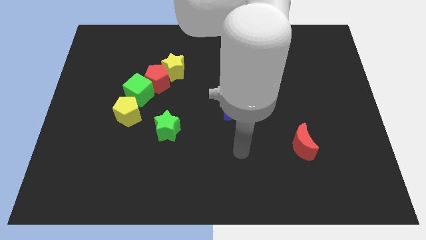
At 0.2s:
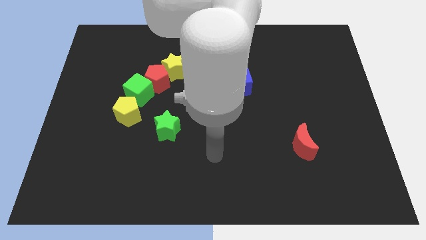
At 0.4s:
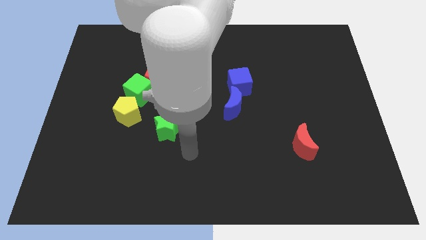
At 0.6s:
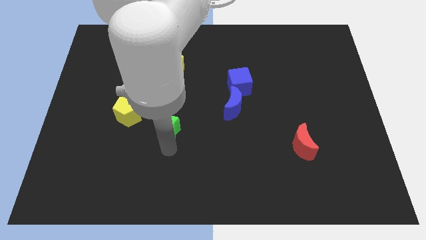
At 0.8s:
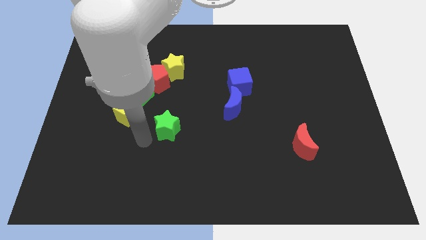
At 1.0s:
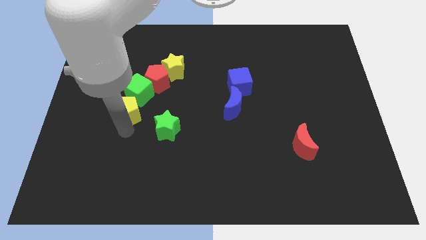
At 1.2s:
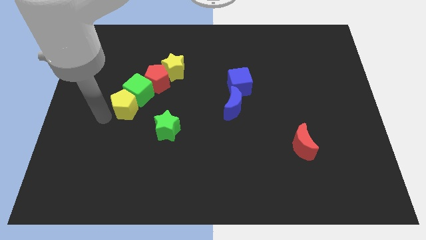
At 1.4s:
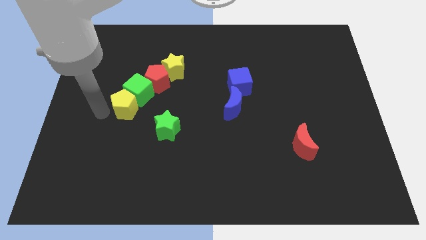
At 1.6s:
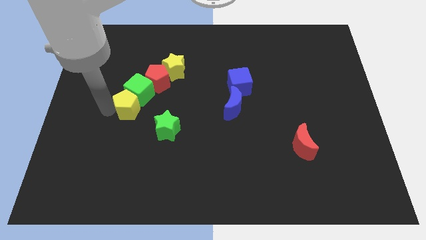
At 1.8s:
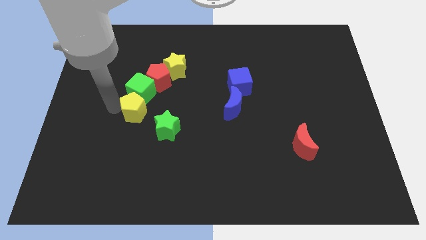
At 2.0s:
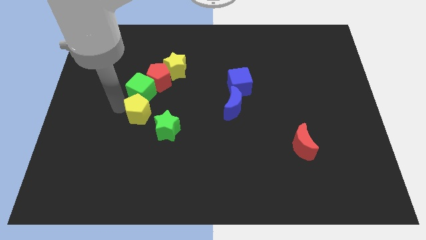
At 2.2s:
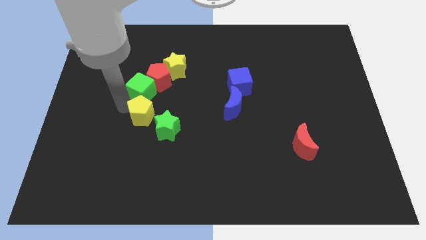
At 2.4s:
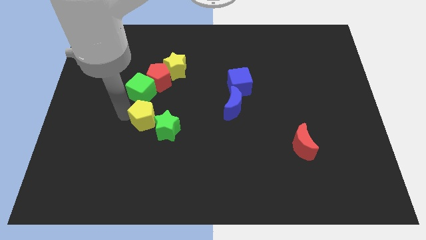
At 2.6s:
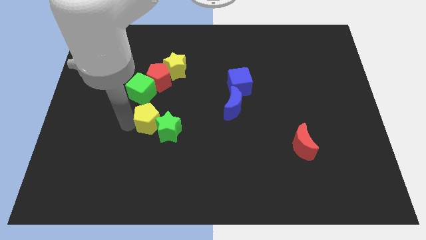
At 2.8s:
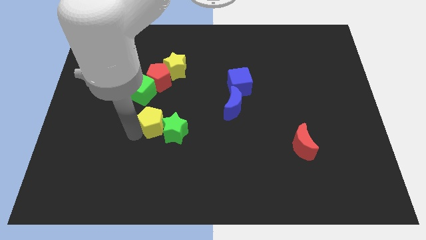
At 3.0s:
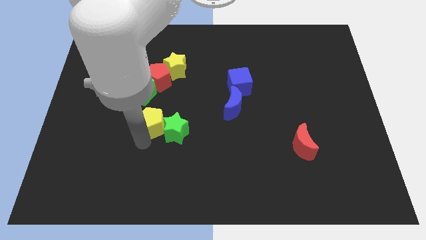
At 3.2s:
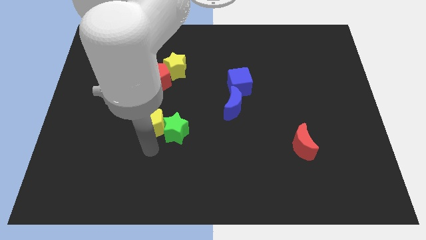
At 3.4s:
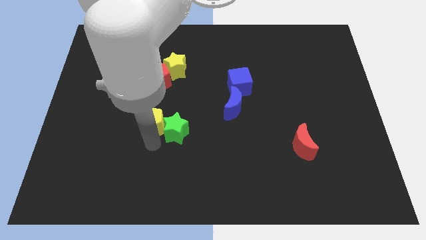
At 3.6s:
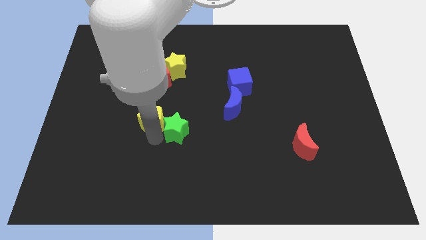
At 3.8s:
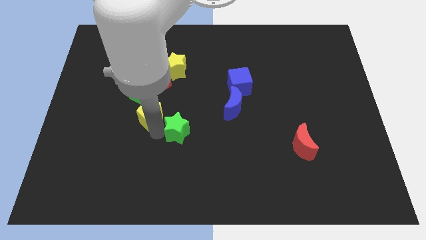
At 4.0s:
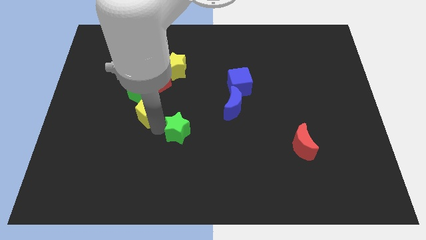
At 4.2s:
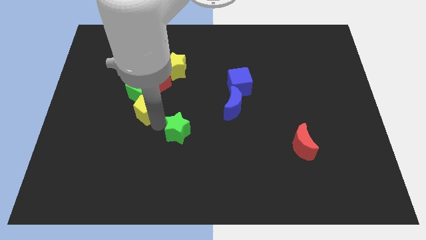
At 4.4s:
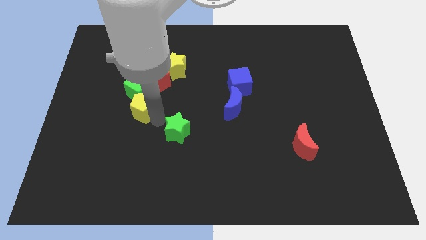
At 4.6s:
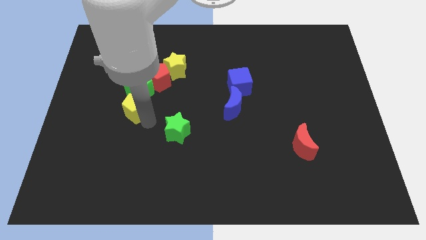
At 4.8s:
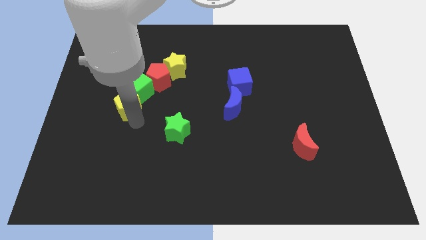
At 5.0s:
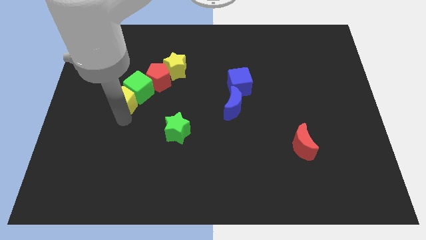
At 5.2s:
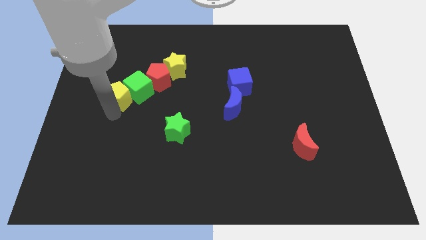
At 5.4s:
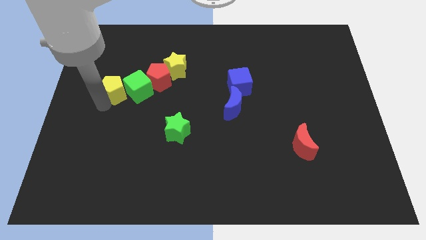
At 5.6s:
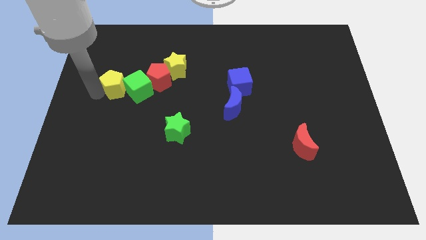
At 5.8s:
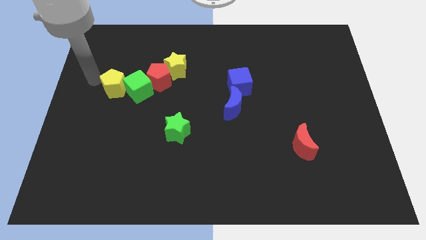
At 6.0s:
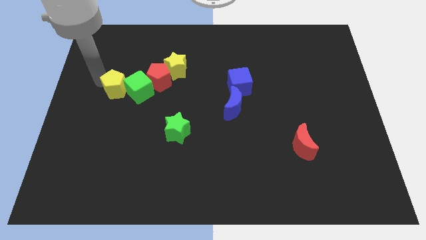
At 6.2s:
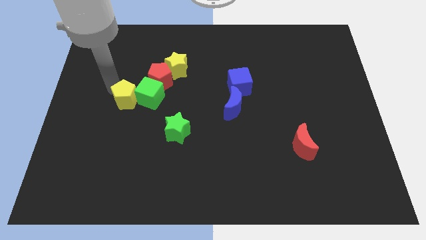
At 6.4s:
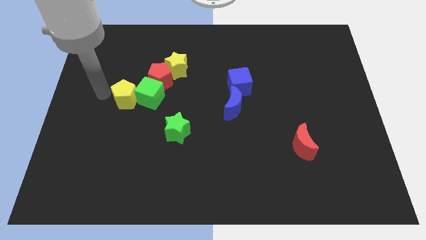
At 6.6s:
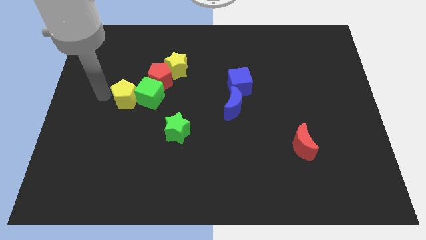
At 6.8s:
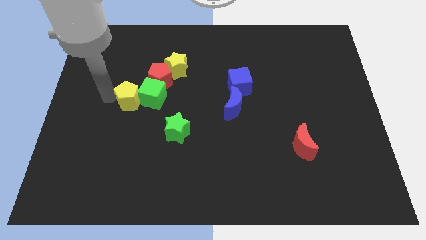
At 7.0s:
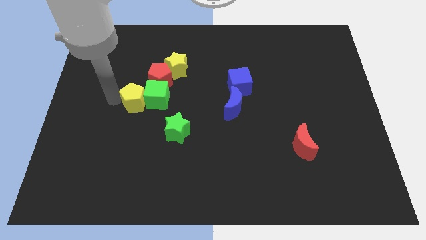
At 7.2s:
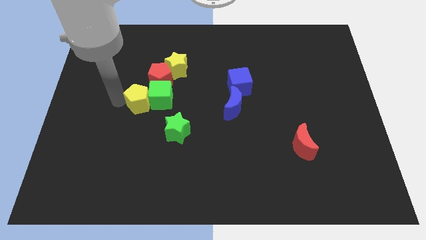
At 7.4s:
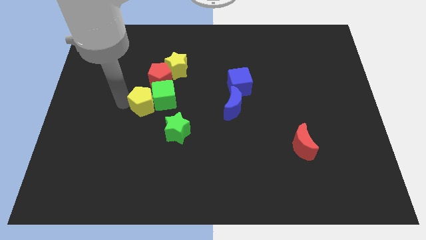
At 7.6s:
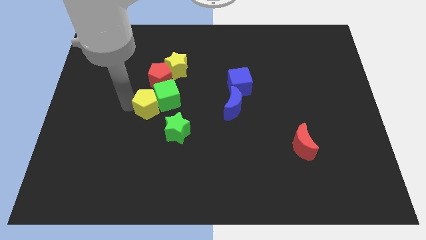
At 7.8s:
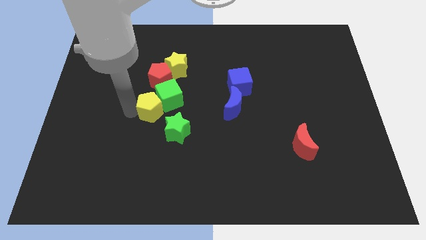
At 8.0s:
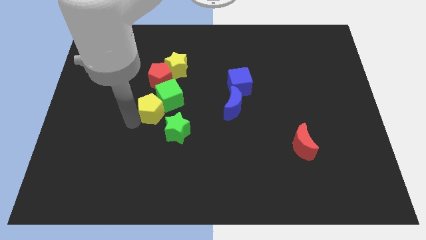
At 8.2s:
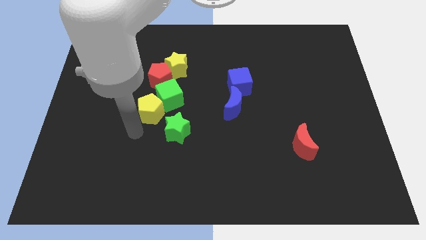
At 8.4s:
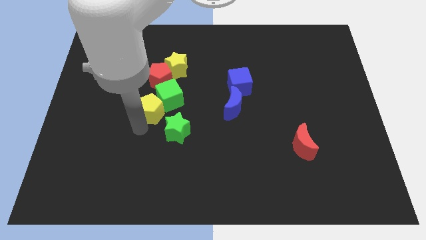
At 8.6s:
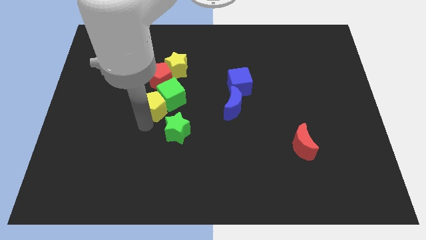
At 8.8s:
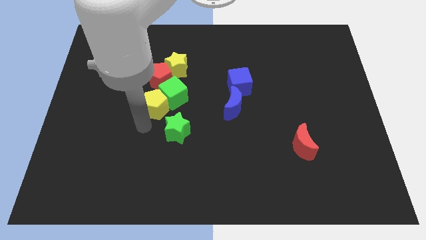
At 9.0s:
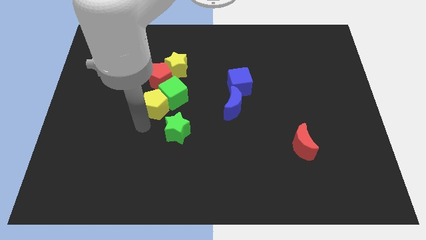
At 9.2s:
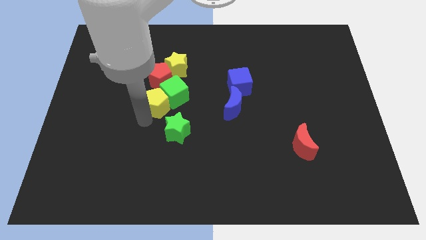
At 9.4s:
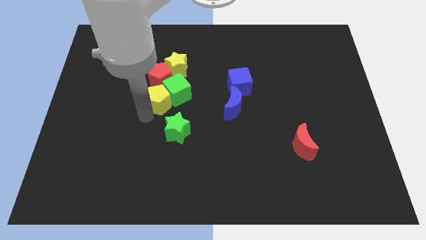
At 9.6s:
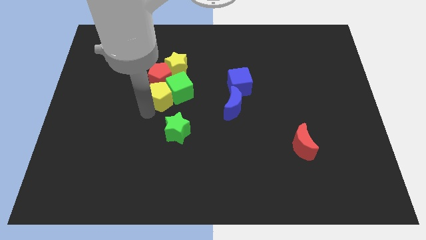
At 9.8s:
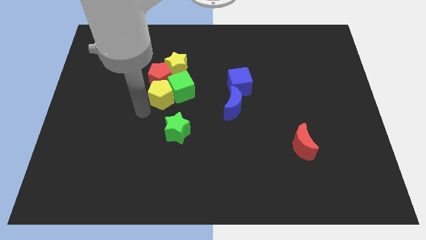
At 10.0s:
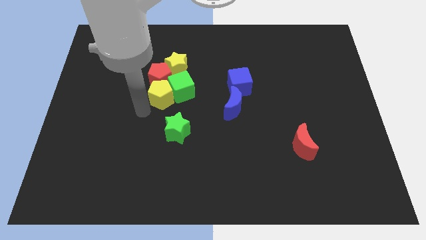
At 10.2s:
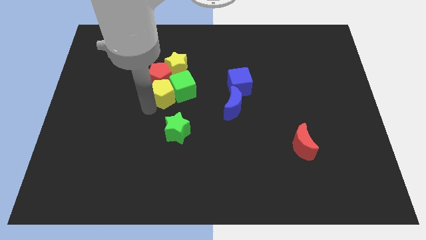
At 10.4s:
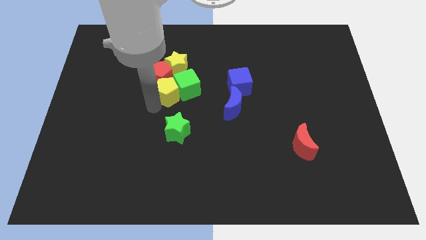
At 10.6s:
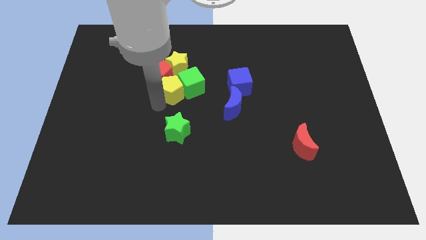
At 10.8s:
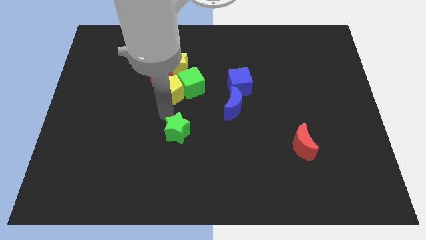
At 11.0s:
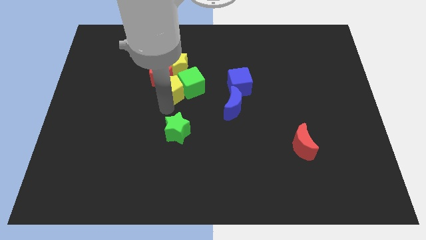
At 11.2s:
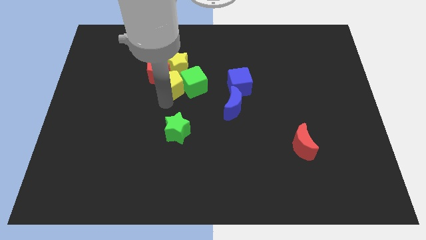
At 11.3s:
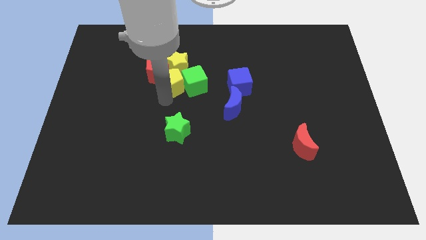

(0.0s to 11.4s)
put the yellow pentagon towards the yellow star

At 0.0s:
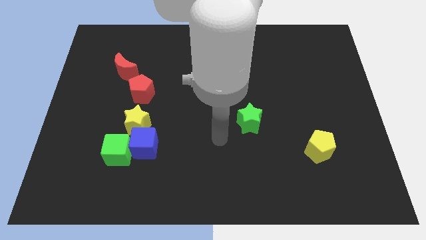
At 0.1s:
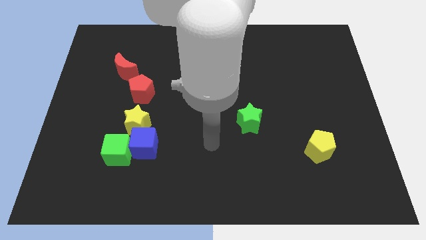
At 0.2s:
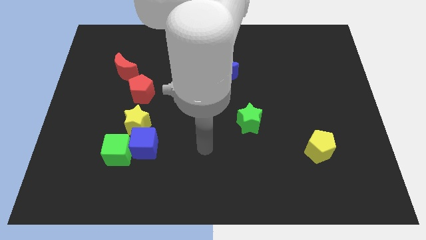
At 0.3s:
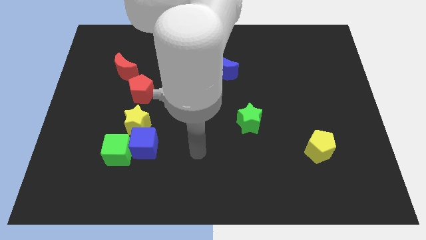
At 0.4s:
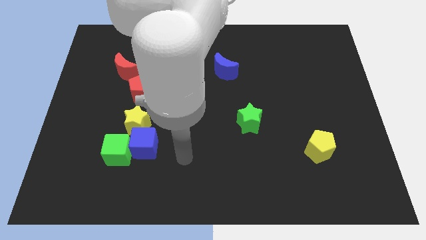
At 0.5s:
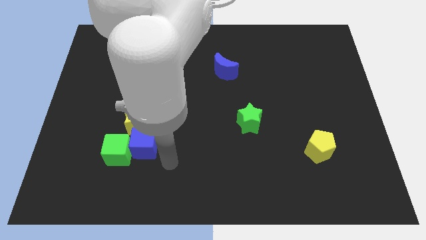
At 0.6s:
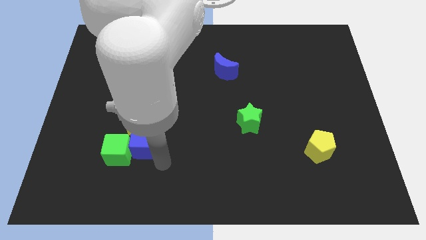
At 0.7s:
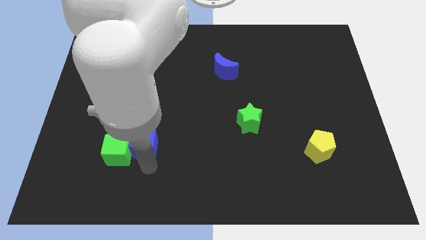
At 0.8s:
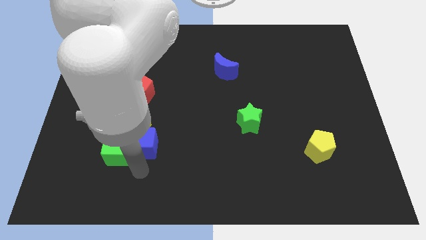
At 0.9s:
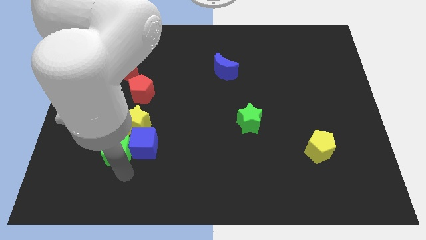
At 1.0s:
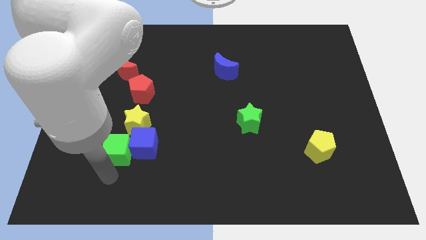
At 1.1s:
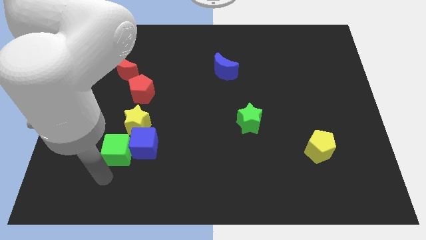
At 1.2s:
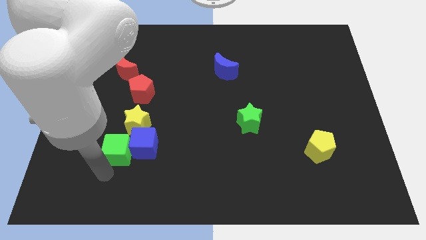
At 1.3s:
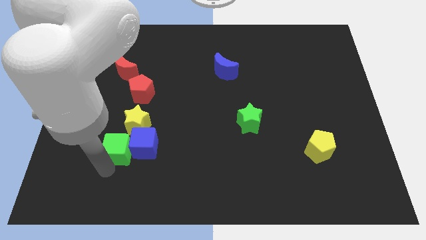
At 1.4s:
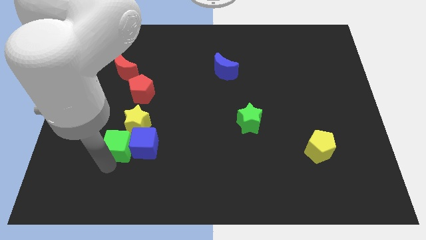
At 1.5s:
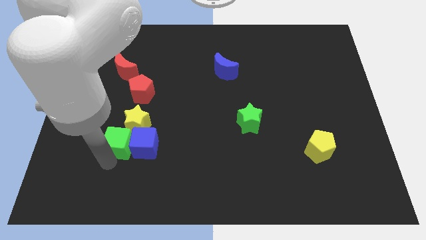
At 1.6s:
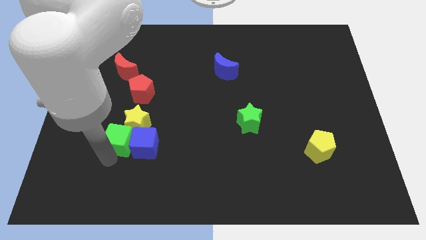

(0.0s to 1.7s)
put the green cube towards the yellow star
